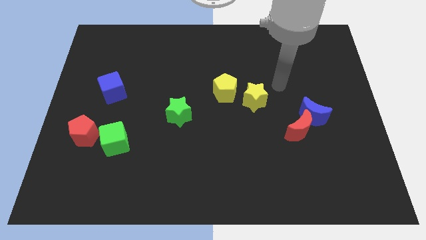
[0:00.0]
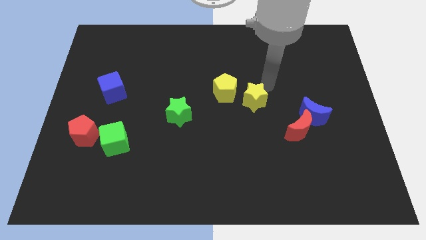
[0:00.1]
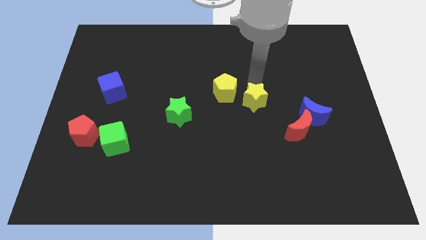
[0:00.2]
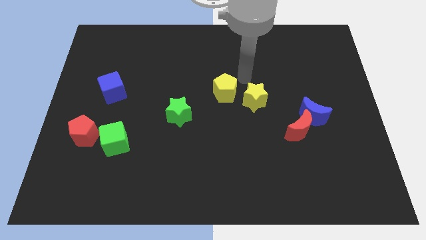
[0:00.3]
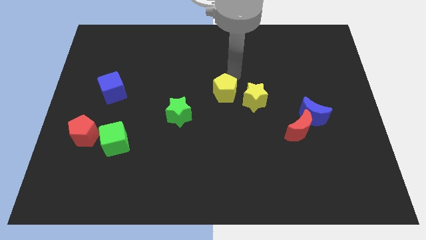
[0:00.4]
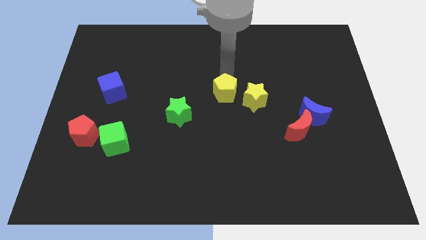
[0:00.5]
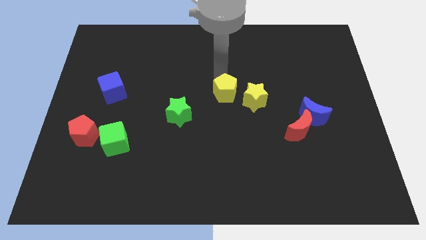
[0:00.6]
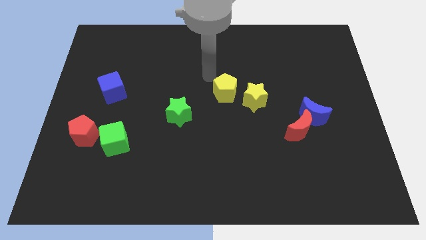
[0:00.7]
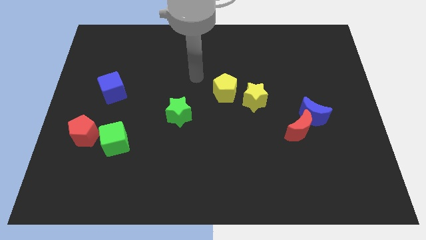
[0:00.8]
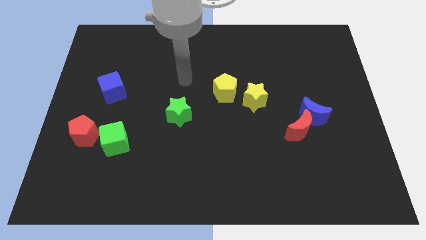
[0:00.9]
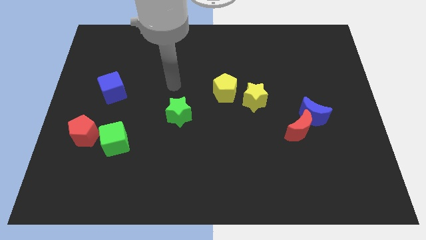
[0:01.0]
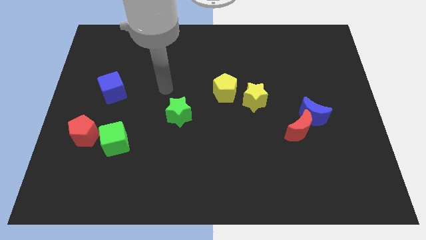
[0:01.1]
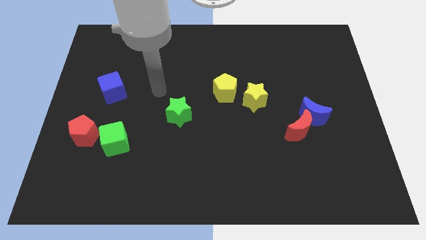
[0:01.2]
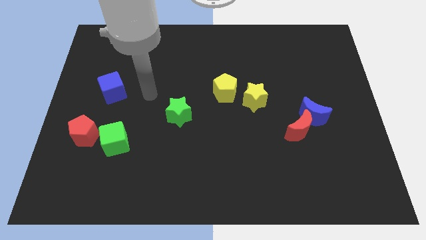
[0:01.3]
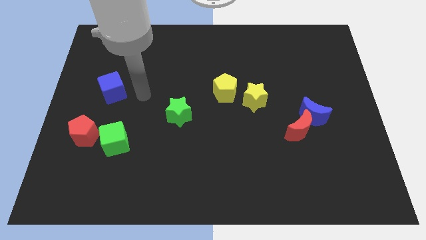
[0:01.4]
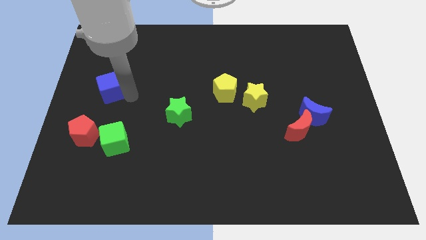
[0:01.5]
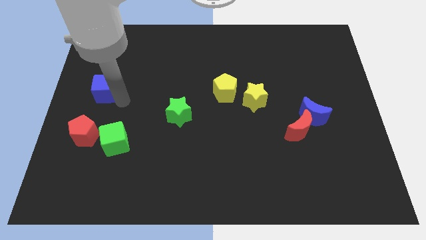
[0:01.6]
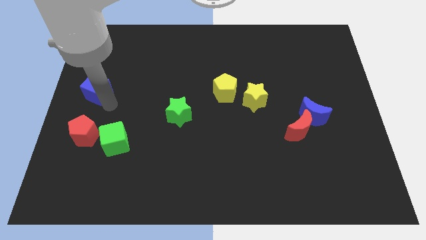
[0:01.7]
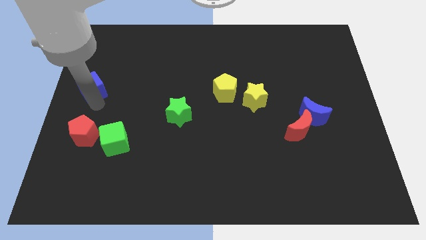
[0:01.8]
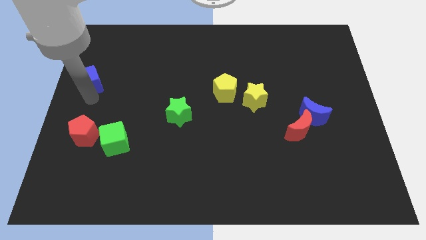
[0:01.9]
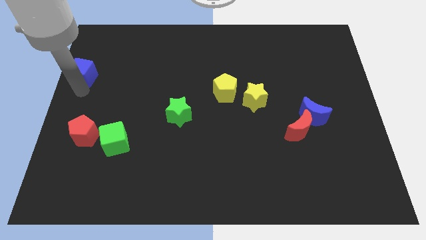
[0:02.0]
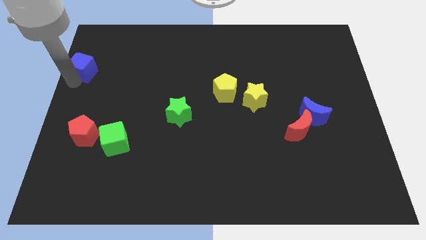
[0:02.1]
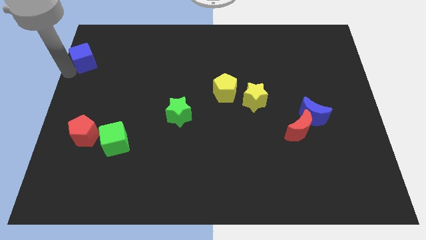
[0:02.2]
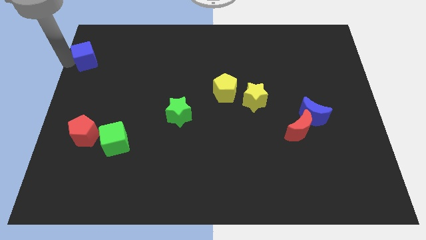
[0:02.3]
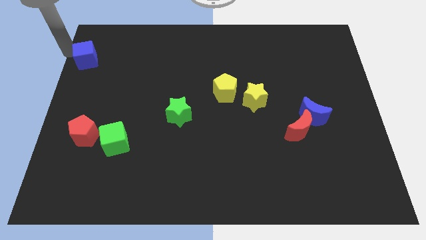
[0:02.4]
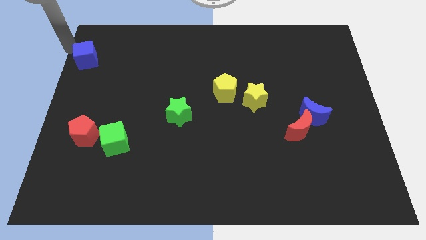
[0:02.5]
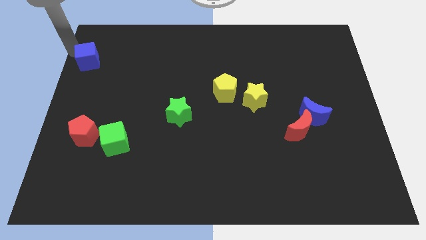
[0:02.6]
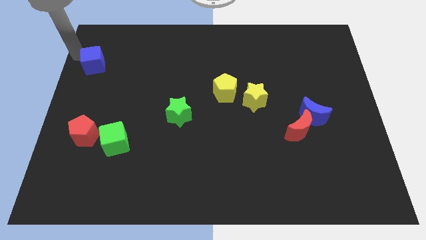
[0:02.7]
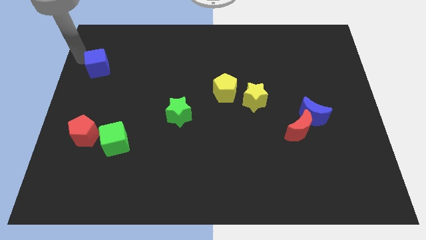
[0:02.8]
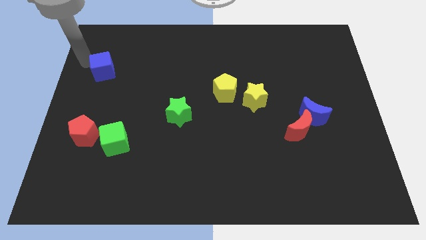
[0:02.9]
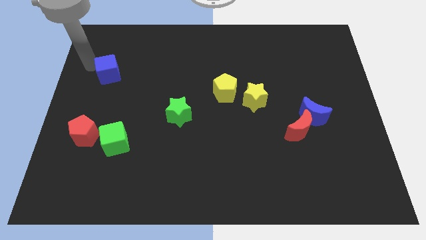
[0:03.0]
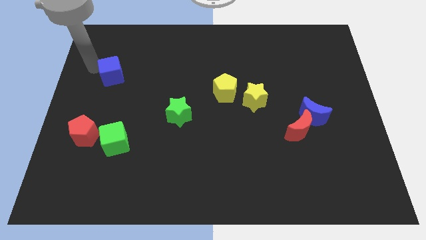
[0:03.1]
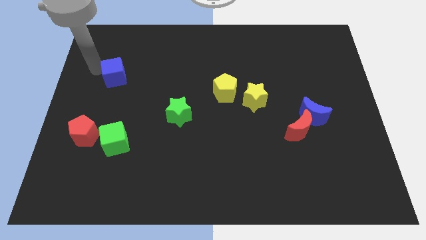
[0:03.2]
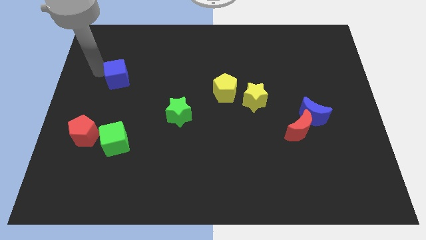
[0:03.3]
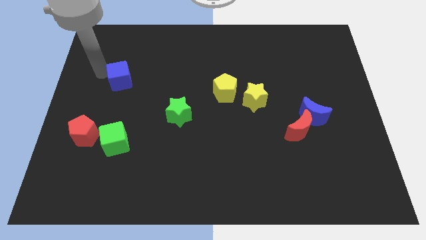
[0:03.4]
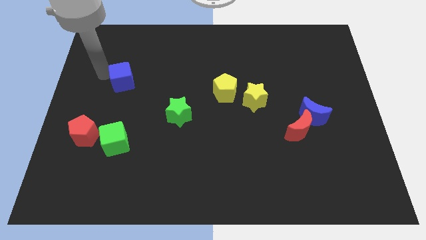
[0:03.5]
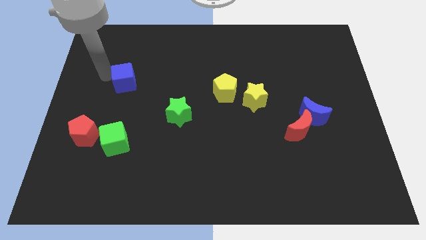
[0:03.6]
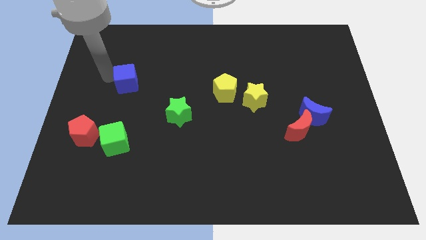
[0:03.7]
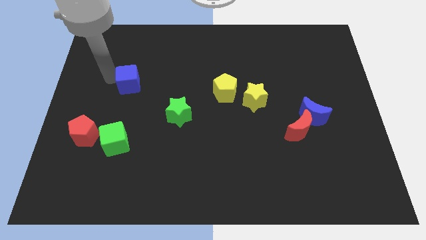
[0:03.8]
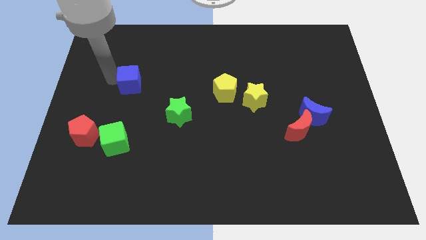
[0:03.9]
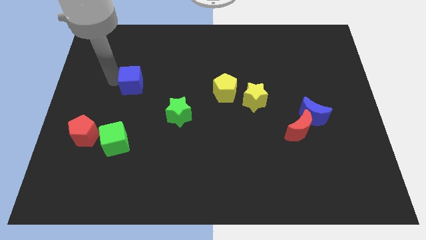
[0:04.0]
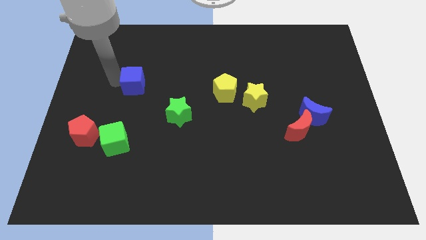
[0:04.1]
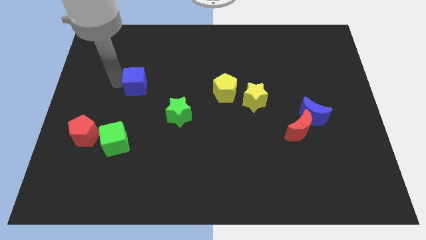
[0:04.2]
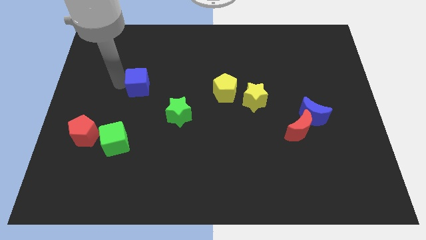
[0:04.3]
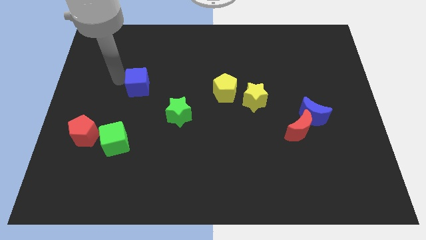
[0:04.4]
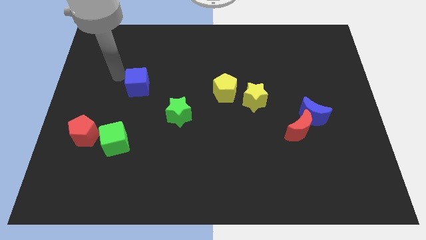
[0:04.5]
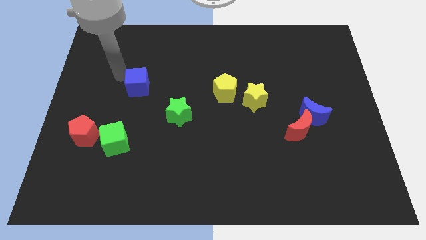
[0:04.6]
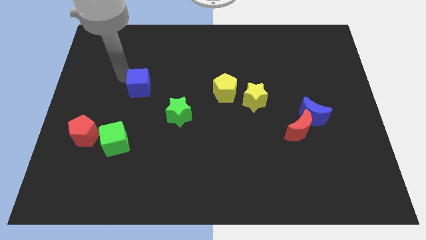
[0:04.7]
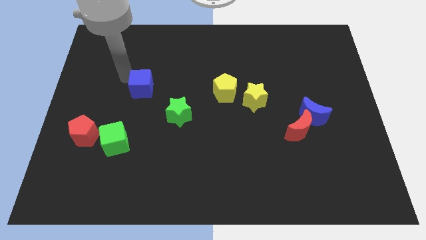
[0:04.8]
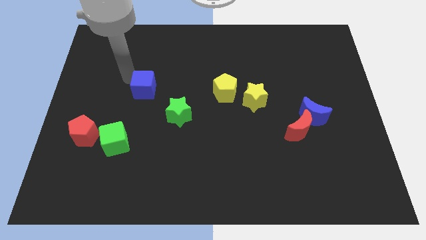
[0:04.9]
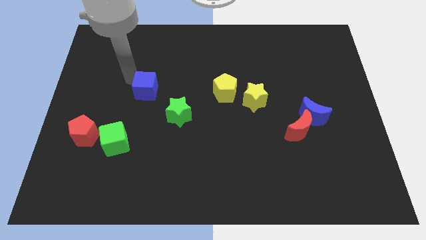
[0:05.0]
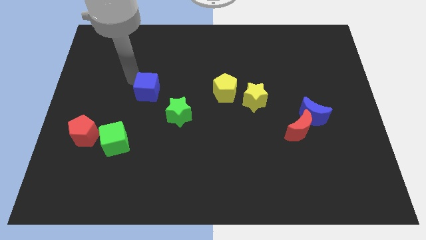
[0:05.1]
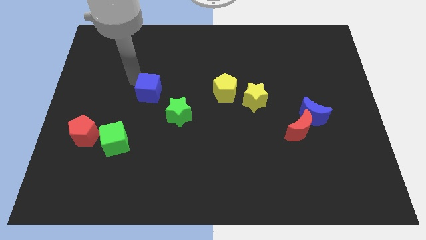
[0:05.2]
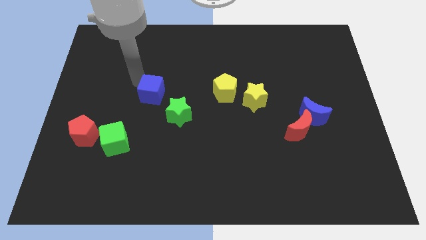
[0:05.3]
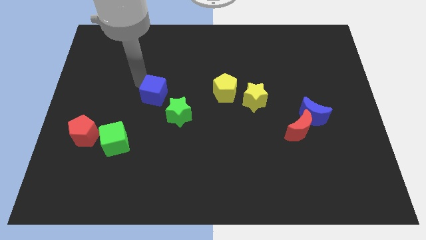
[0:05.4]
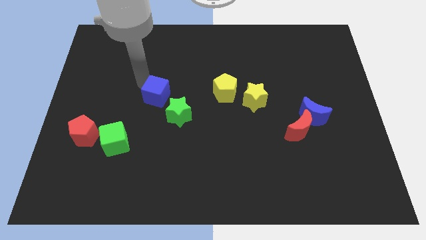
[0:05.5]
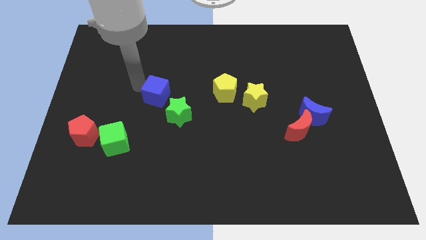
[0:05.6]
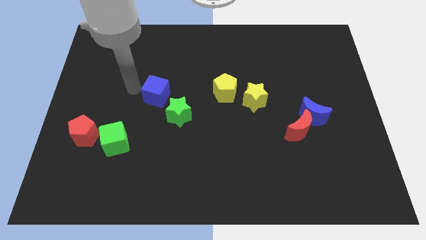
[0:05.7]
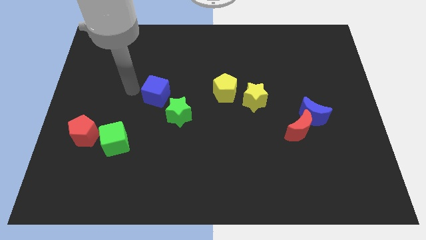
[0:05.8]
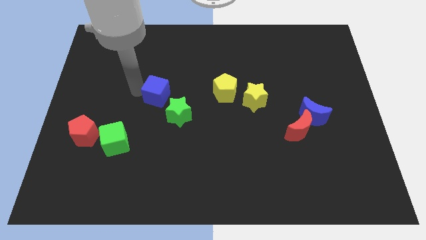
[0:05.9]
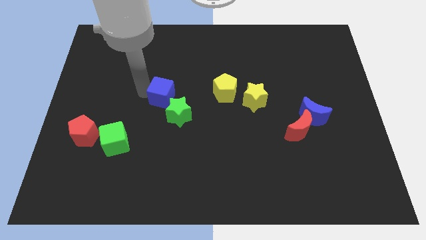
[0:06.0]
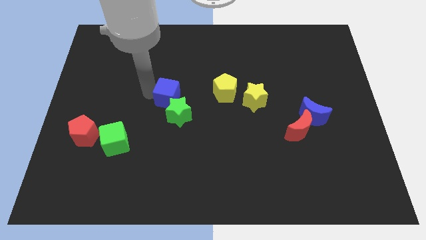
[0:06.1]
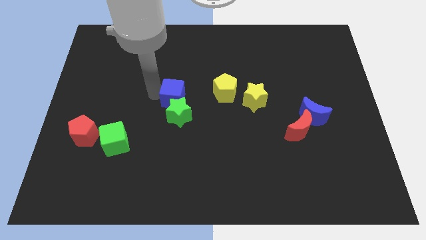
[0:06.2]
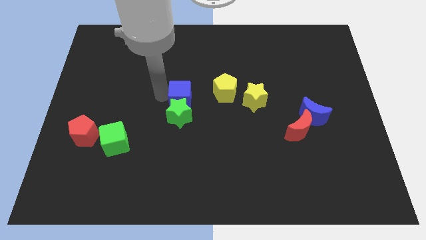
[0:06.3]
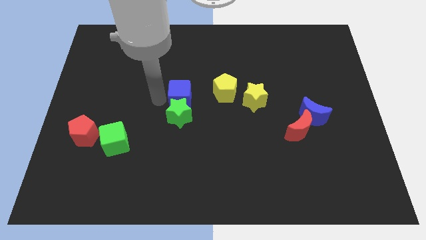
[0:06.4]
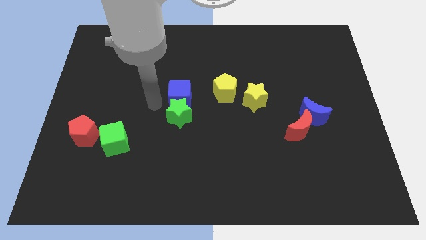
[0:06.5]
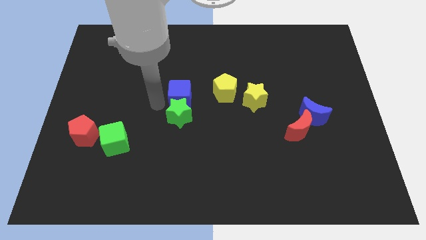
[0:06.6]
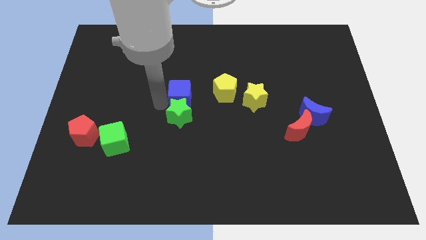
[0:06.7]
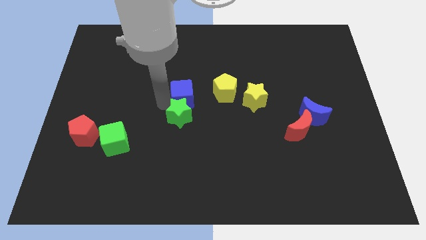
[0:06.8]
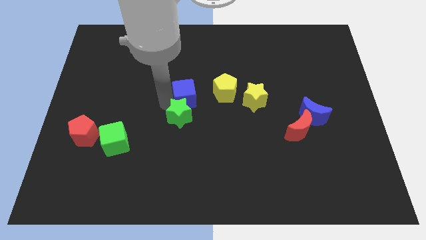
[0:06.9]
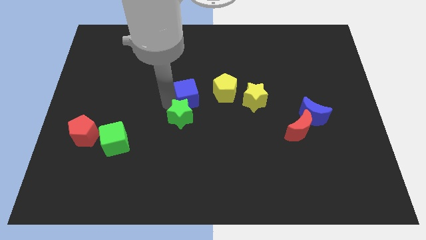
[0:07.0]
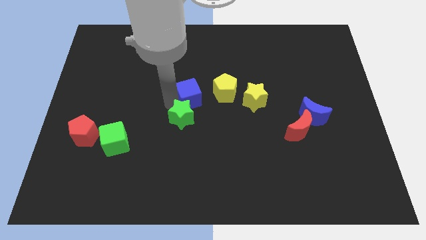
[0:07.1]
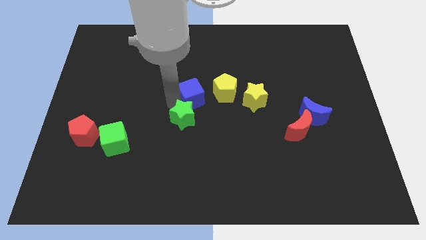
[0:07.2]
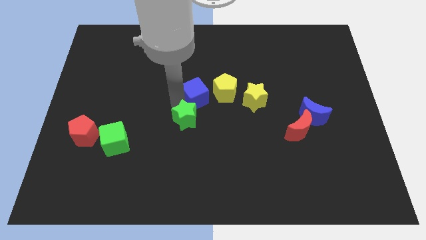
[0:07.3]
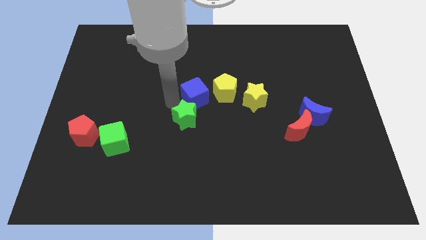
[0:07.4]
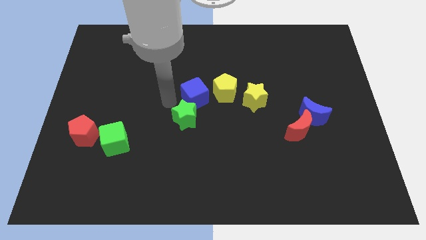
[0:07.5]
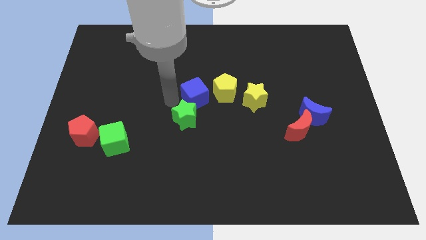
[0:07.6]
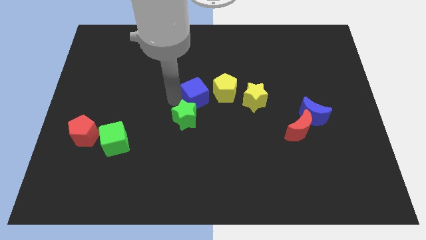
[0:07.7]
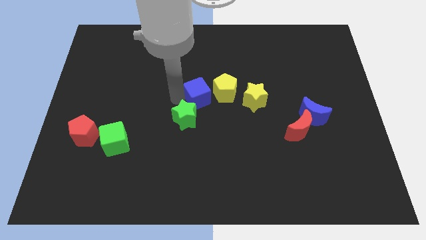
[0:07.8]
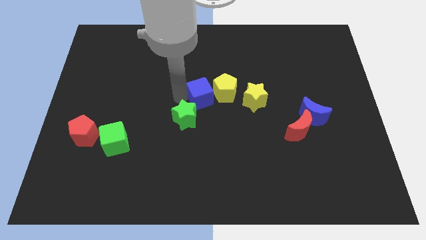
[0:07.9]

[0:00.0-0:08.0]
push the blue cube close to the yellow pentagon
